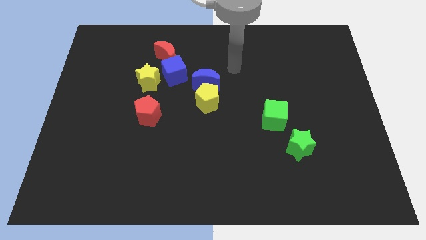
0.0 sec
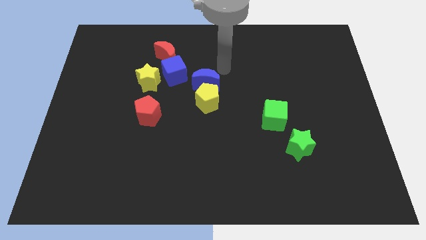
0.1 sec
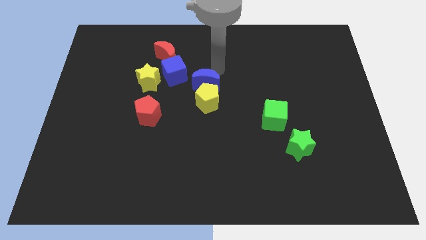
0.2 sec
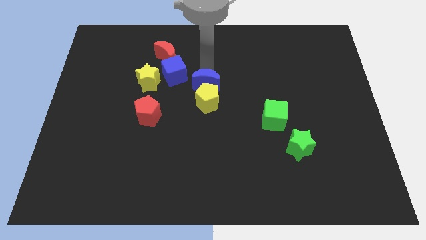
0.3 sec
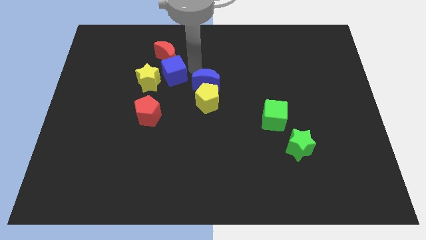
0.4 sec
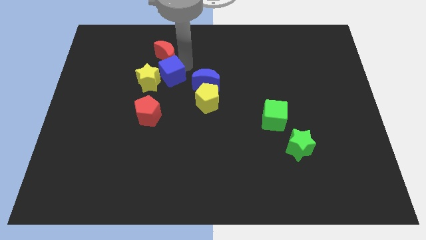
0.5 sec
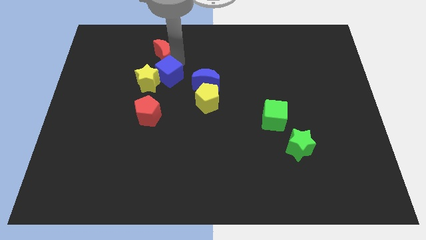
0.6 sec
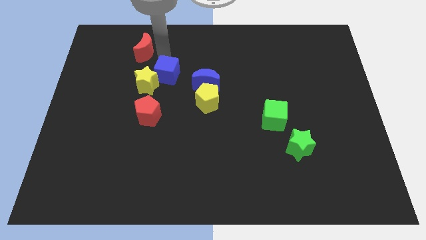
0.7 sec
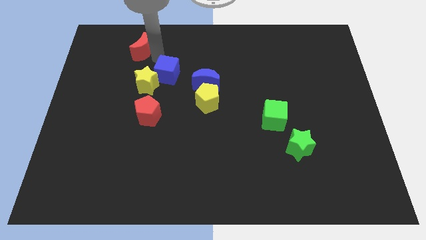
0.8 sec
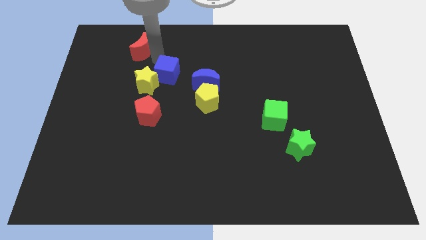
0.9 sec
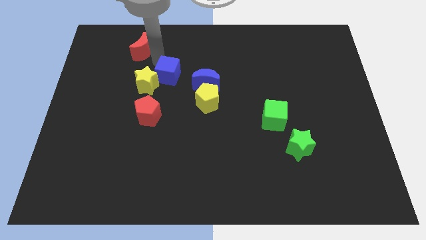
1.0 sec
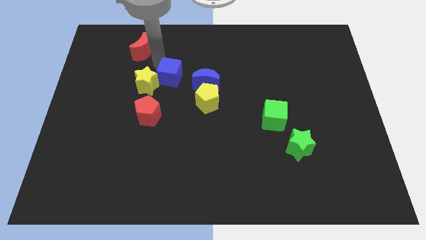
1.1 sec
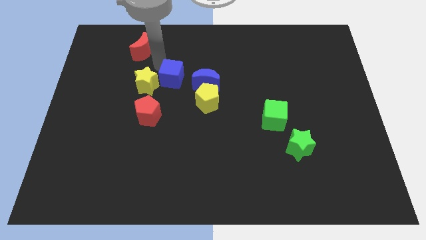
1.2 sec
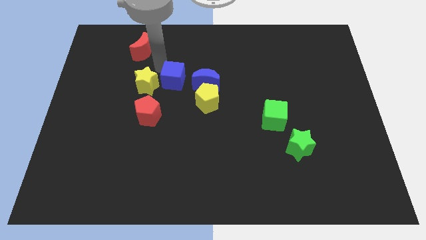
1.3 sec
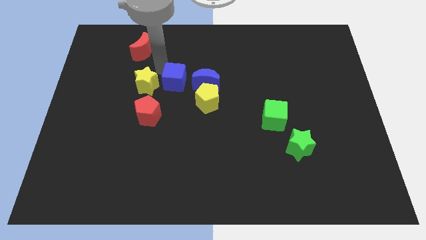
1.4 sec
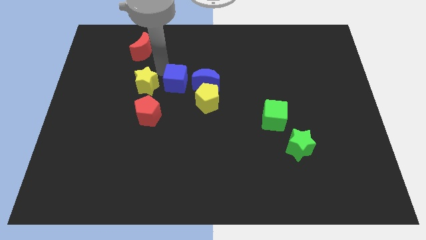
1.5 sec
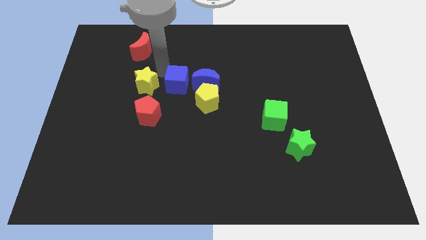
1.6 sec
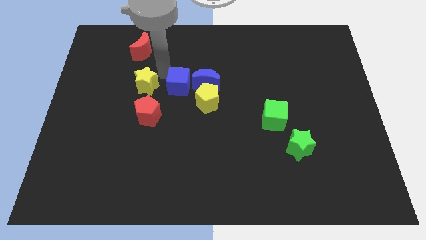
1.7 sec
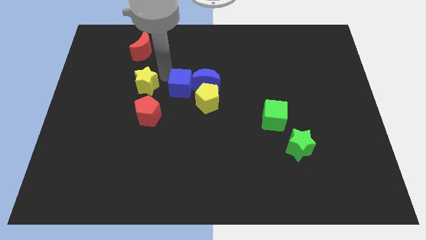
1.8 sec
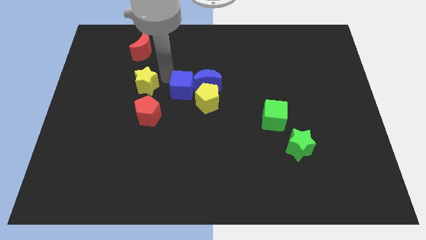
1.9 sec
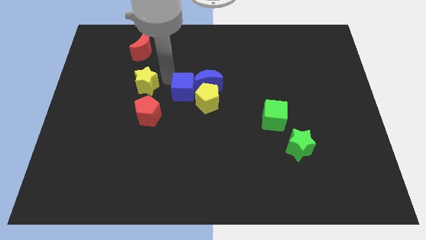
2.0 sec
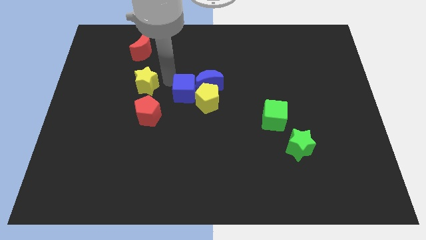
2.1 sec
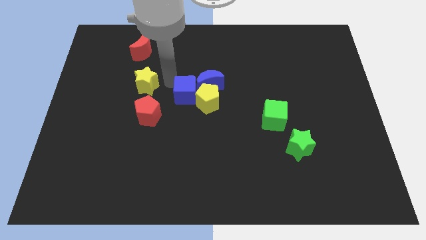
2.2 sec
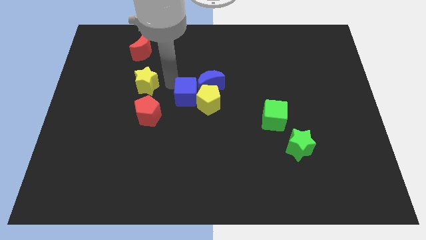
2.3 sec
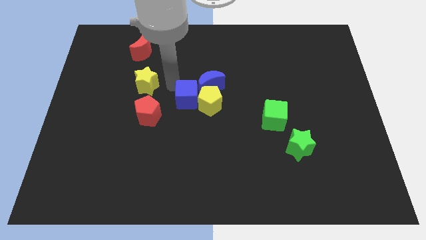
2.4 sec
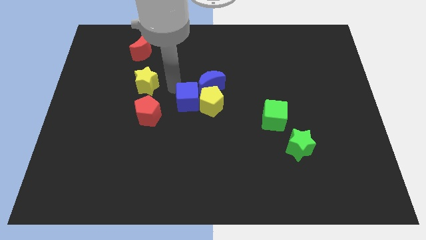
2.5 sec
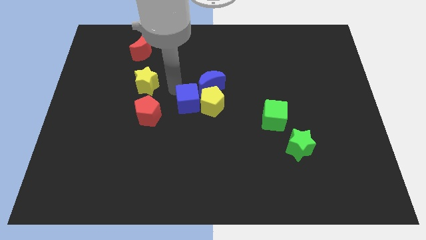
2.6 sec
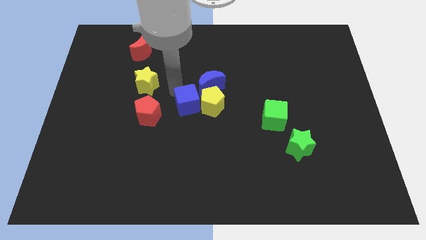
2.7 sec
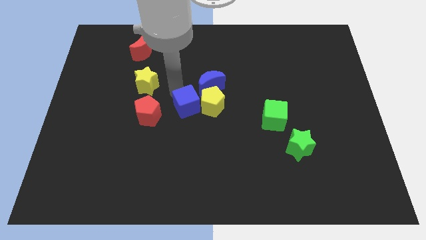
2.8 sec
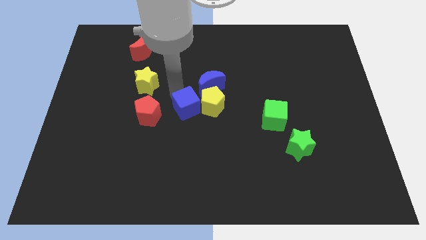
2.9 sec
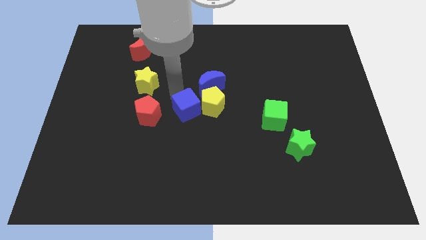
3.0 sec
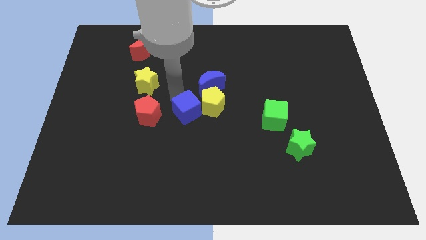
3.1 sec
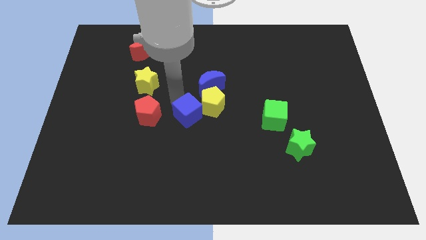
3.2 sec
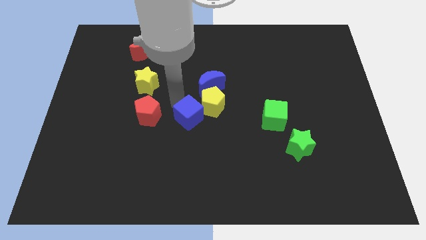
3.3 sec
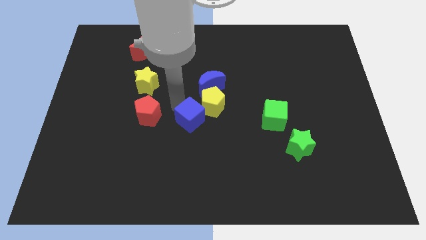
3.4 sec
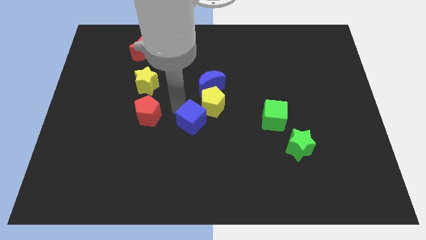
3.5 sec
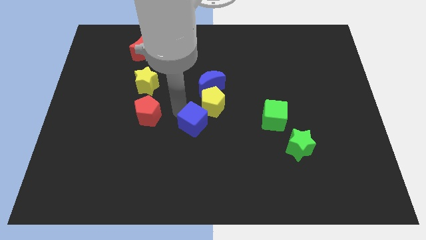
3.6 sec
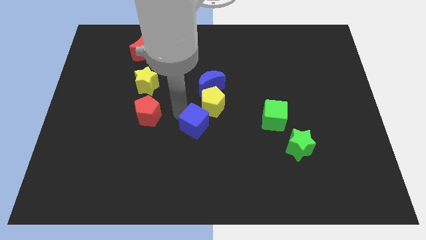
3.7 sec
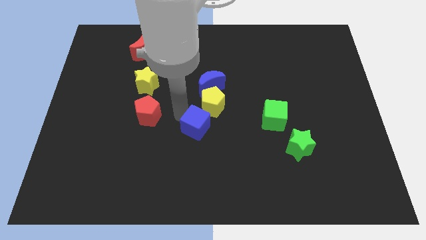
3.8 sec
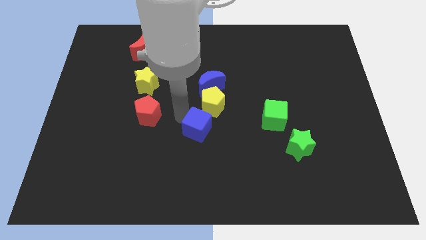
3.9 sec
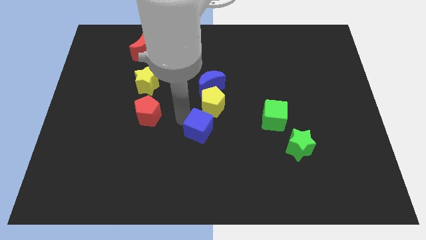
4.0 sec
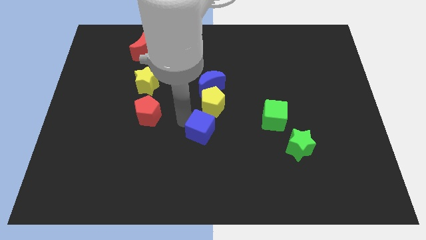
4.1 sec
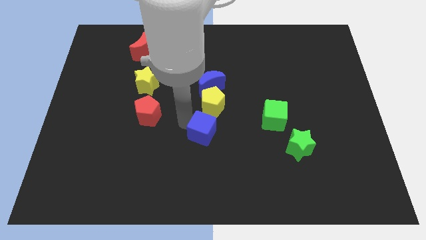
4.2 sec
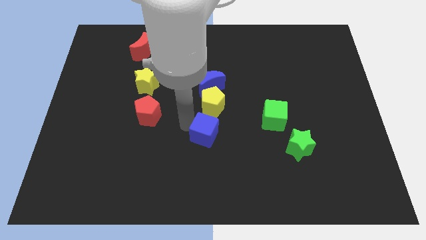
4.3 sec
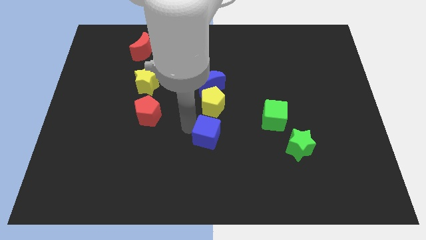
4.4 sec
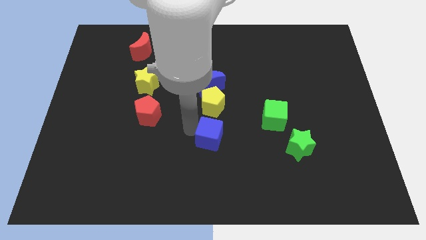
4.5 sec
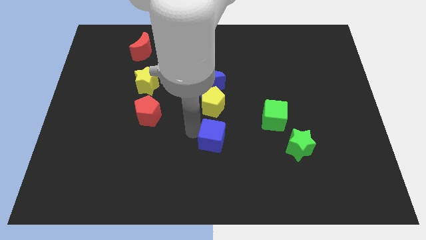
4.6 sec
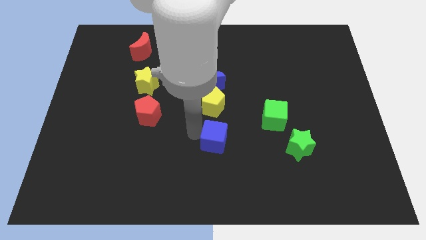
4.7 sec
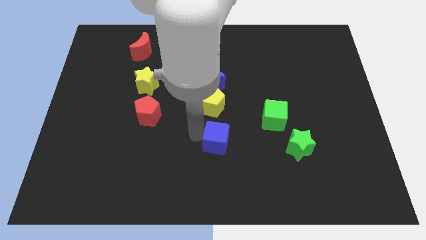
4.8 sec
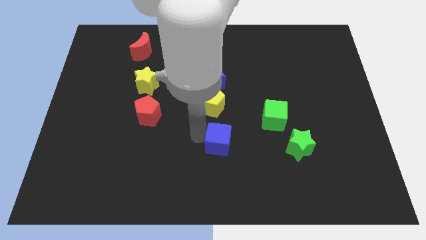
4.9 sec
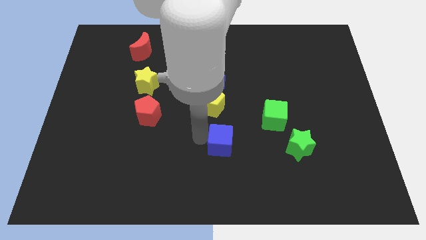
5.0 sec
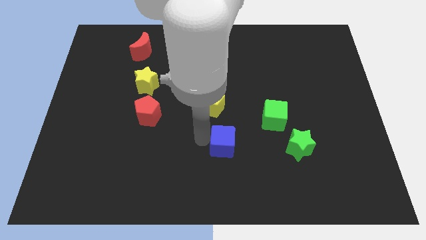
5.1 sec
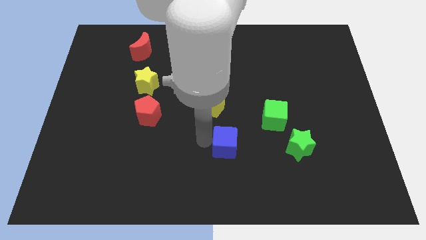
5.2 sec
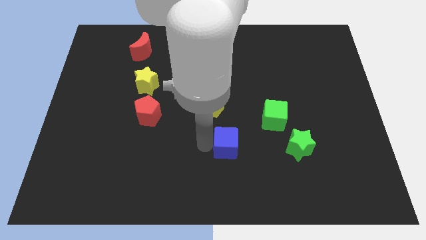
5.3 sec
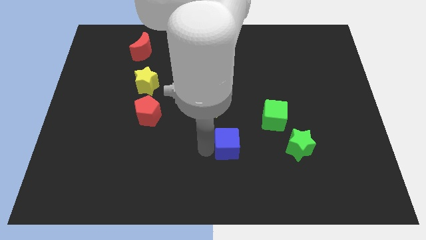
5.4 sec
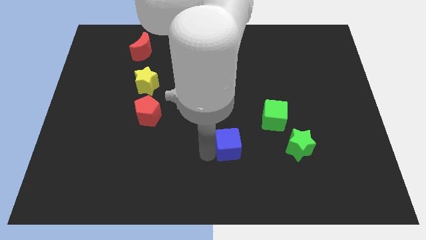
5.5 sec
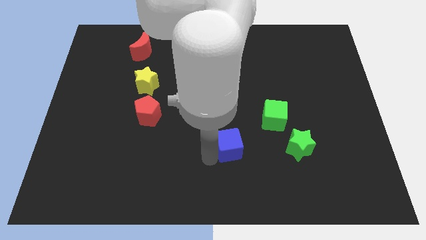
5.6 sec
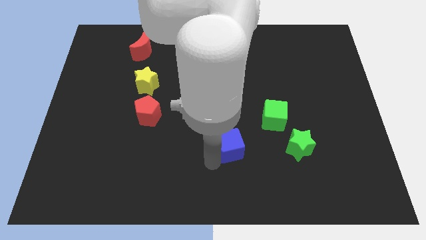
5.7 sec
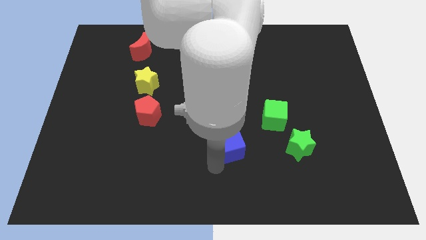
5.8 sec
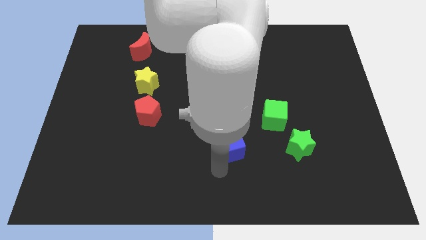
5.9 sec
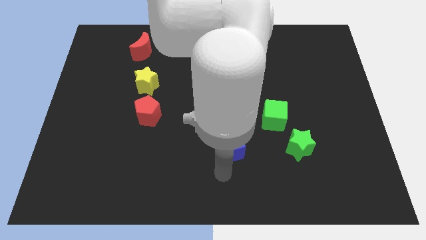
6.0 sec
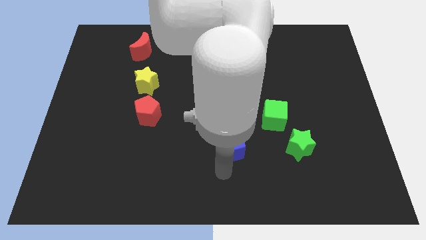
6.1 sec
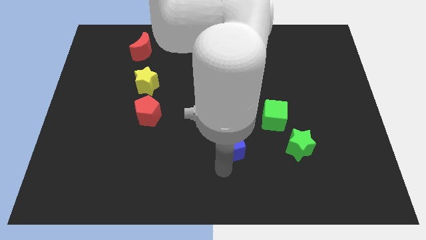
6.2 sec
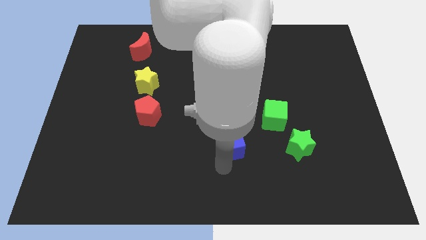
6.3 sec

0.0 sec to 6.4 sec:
slide the blue cube to the bottom left side of the green cube

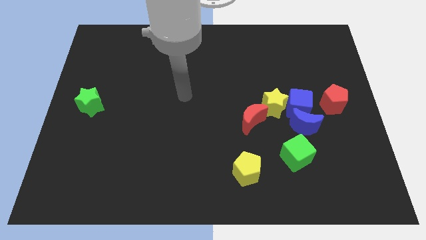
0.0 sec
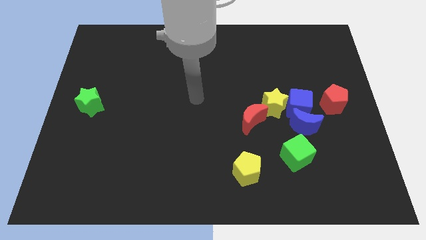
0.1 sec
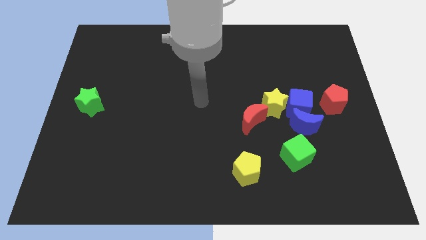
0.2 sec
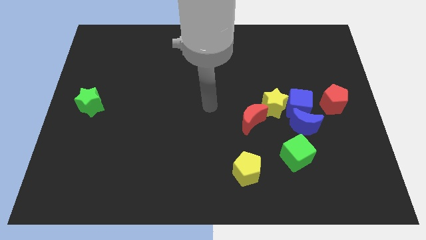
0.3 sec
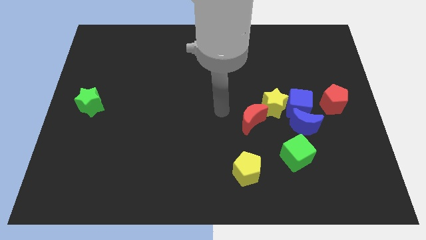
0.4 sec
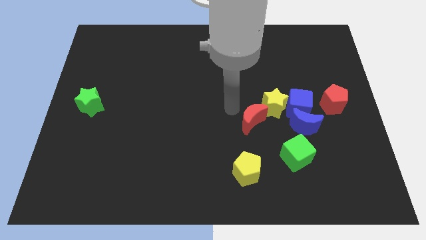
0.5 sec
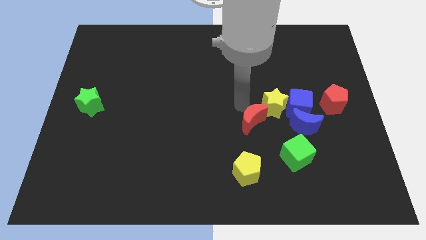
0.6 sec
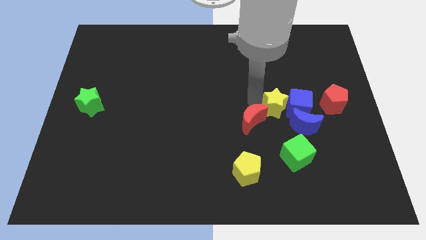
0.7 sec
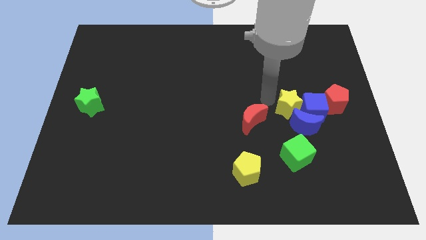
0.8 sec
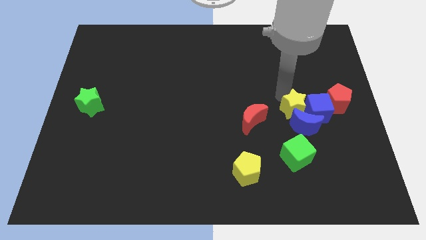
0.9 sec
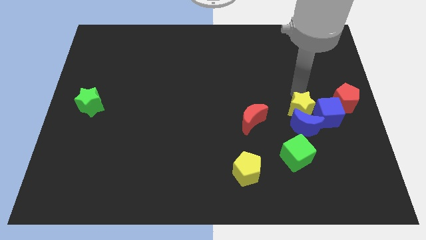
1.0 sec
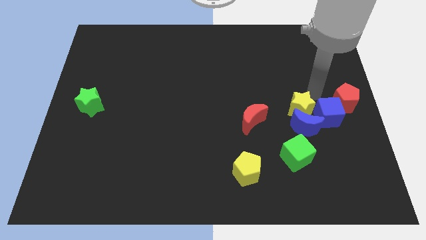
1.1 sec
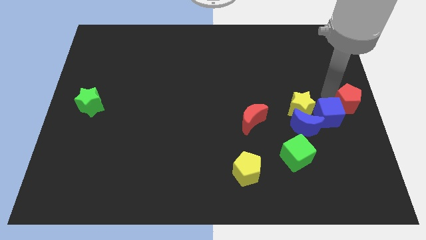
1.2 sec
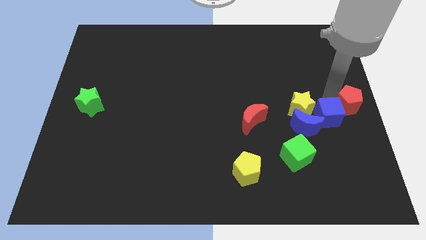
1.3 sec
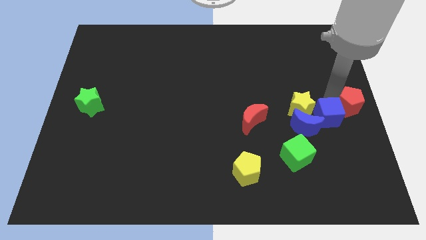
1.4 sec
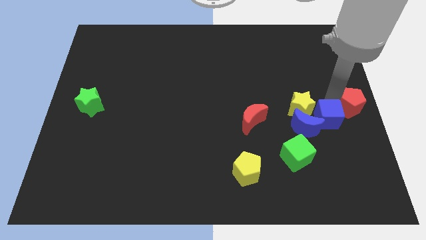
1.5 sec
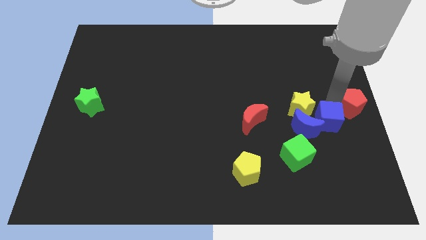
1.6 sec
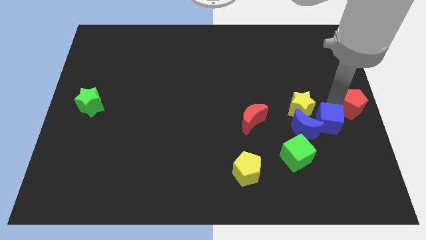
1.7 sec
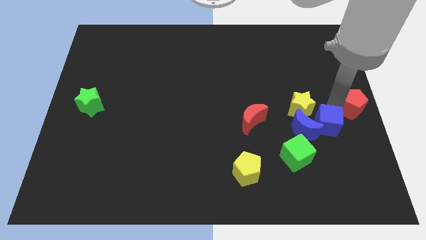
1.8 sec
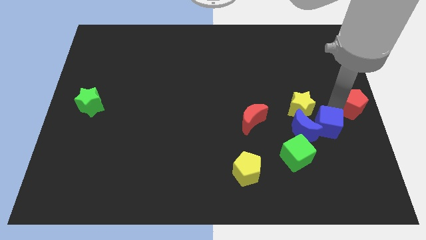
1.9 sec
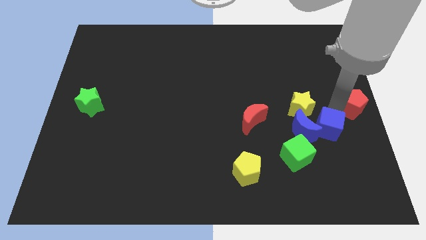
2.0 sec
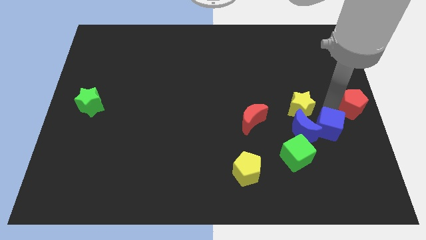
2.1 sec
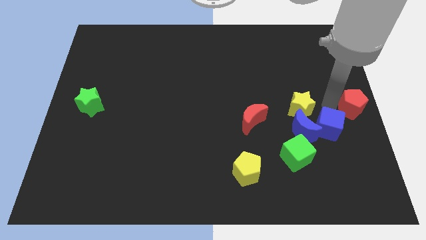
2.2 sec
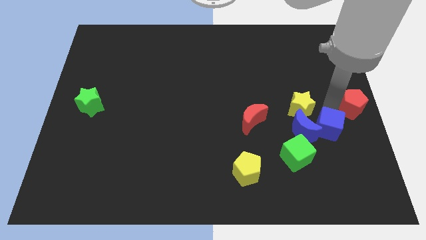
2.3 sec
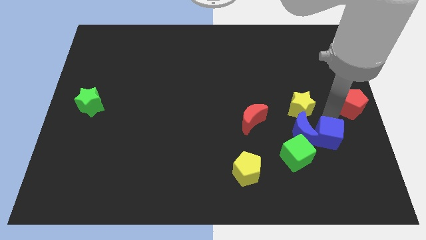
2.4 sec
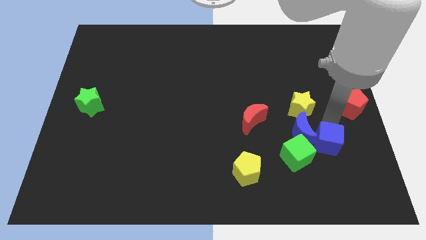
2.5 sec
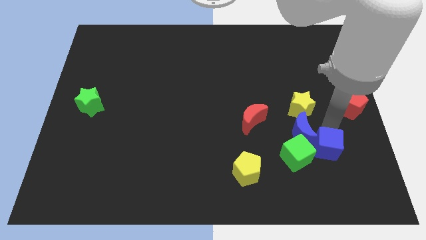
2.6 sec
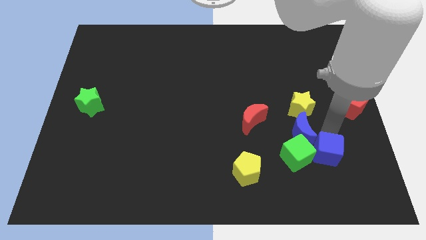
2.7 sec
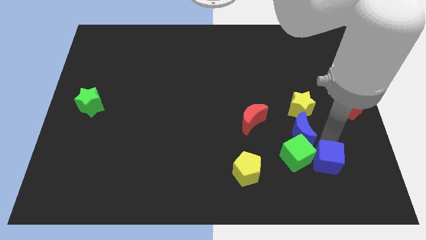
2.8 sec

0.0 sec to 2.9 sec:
move the blue cube to the bottom right side of the green cube
